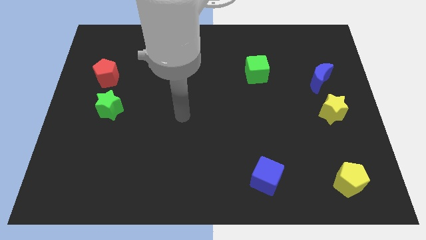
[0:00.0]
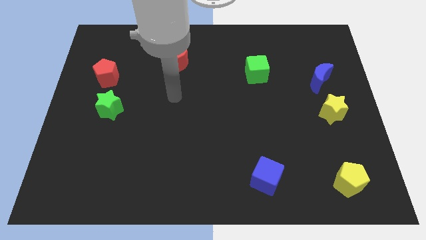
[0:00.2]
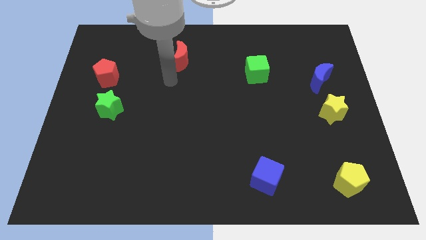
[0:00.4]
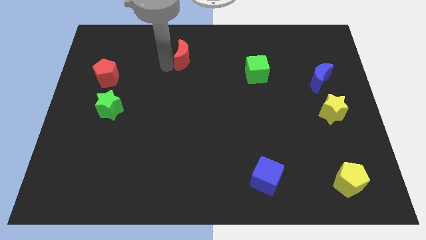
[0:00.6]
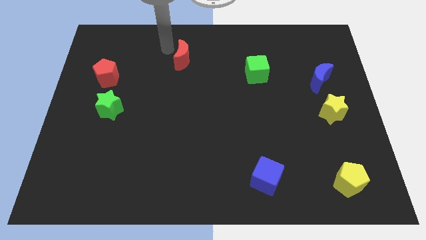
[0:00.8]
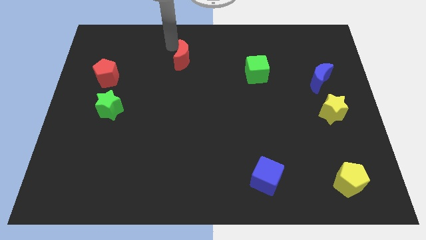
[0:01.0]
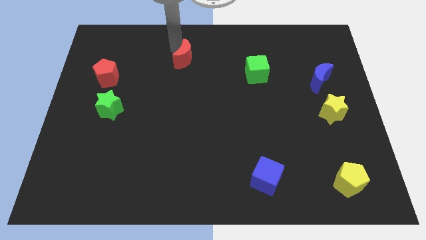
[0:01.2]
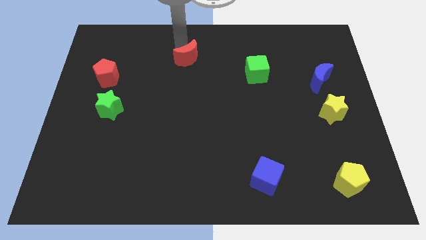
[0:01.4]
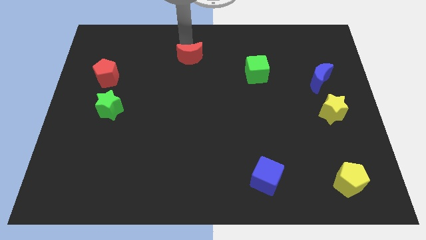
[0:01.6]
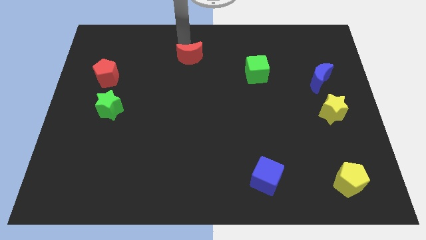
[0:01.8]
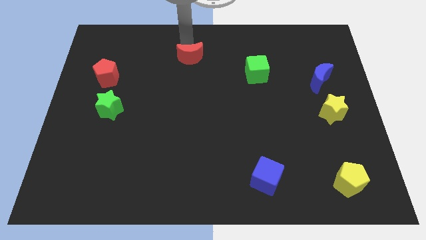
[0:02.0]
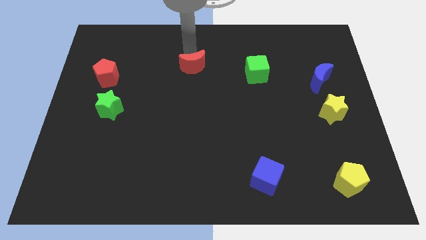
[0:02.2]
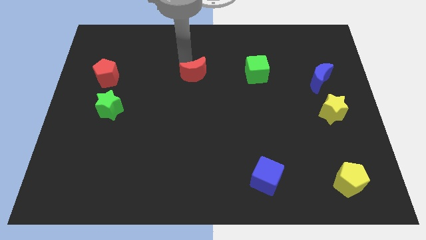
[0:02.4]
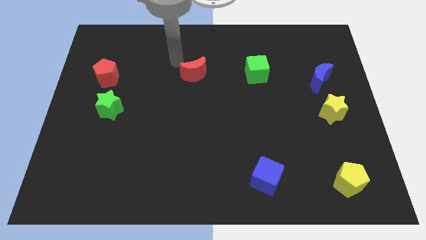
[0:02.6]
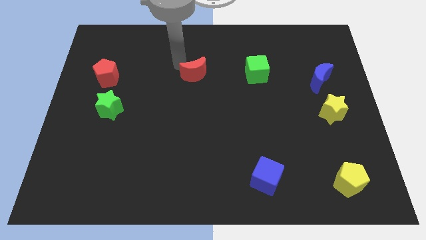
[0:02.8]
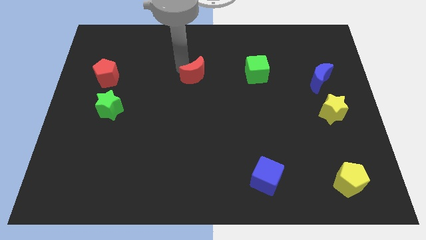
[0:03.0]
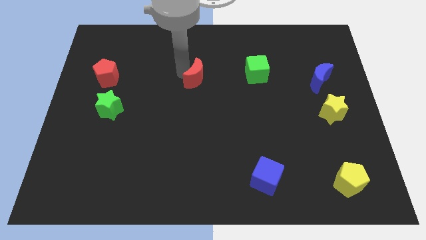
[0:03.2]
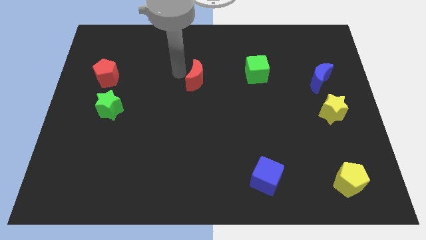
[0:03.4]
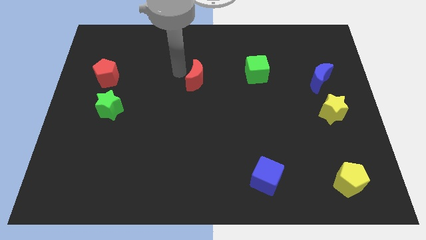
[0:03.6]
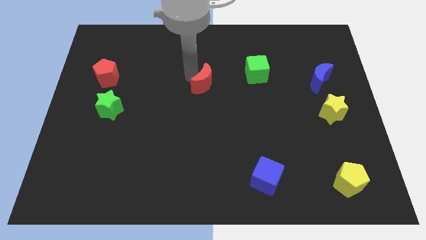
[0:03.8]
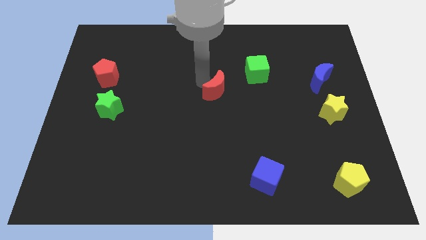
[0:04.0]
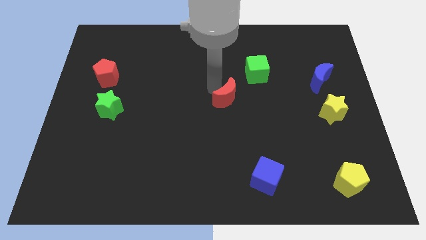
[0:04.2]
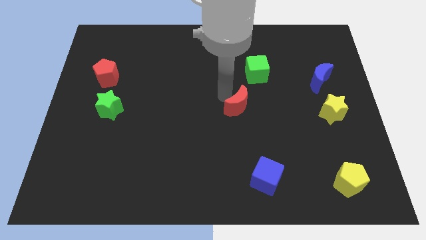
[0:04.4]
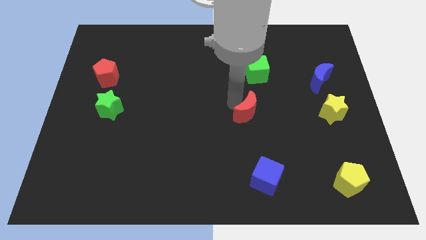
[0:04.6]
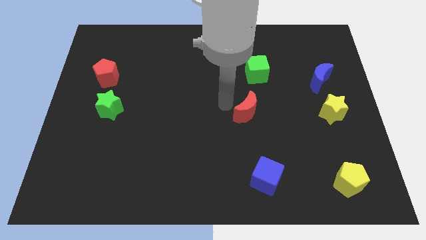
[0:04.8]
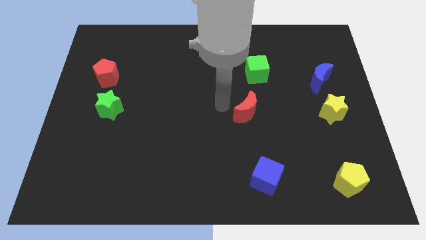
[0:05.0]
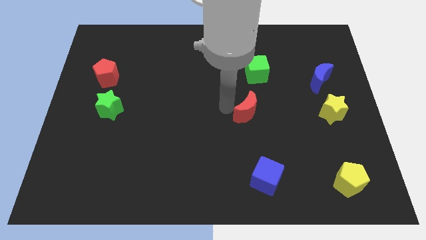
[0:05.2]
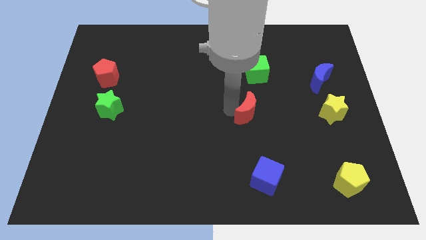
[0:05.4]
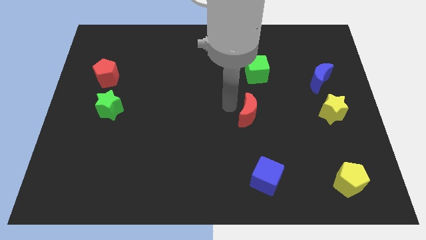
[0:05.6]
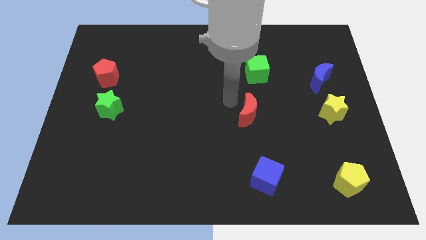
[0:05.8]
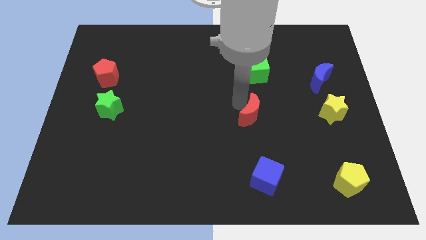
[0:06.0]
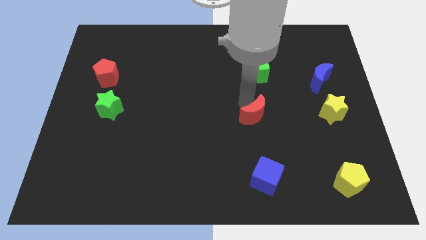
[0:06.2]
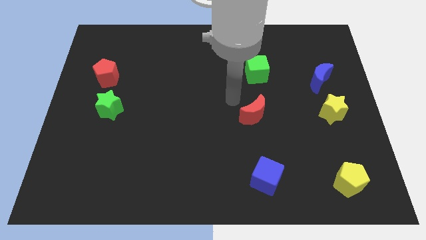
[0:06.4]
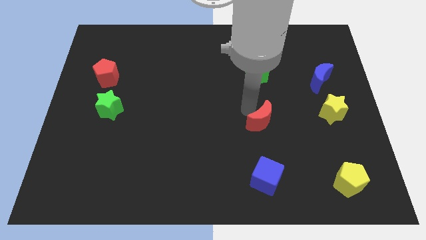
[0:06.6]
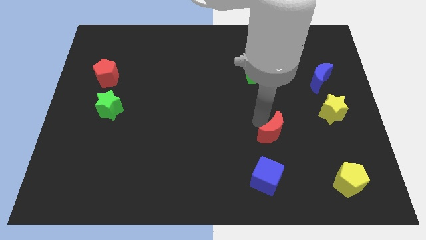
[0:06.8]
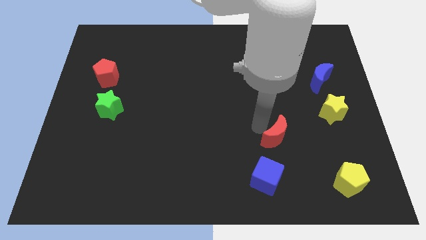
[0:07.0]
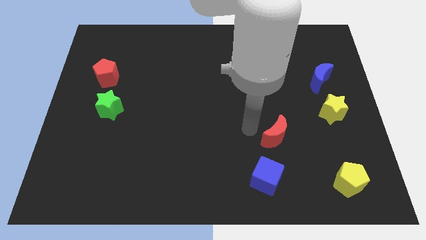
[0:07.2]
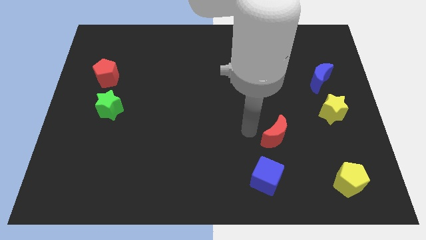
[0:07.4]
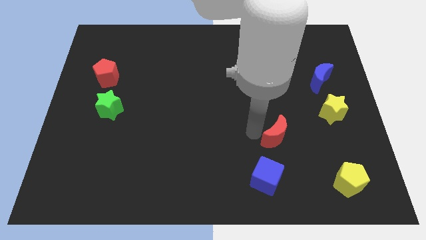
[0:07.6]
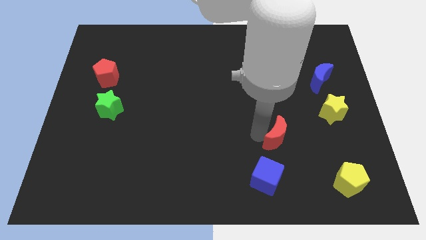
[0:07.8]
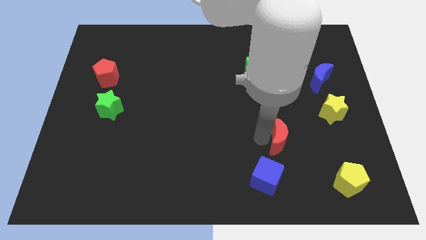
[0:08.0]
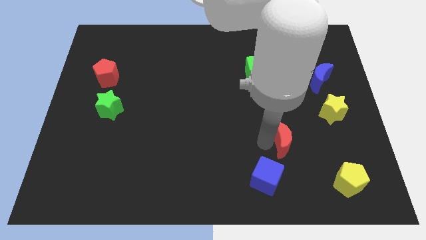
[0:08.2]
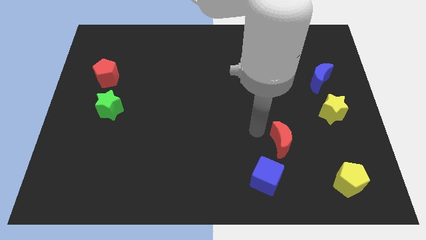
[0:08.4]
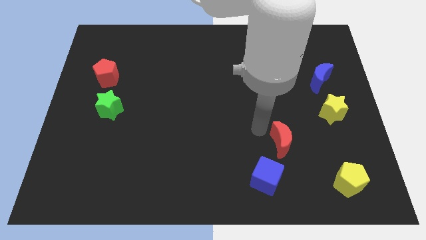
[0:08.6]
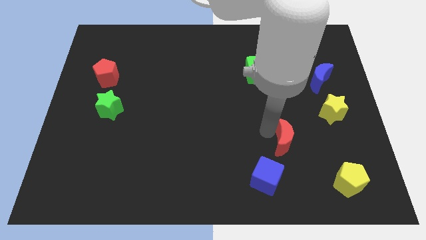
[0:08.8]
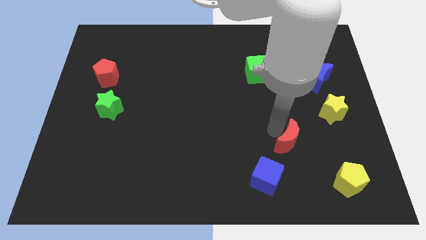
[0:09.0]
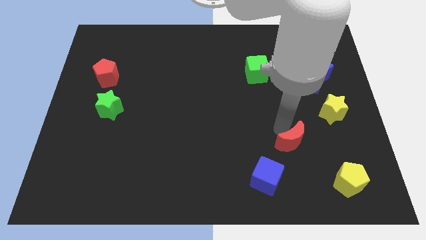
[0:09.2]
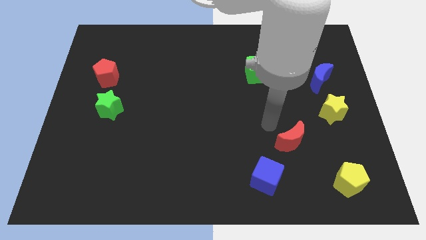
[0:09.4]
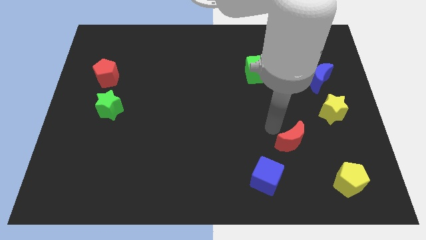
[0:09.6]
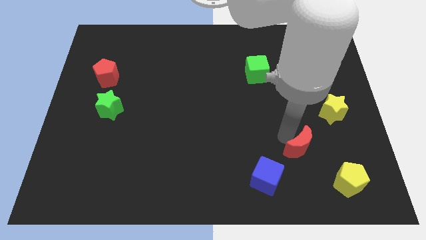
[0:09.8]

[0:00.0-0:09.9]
slide the red moon to the top left of the yellow pentagon

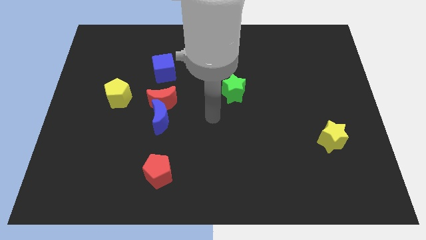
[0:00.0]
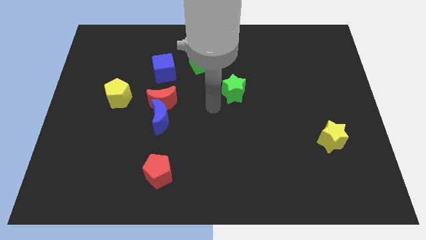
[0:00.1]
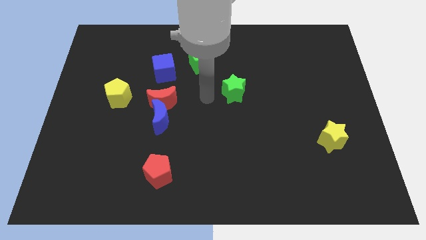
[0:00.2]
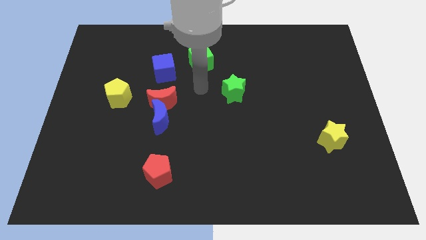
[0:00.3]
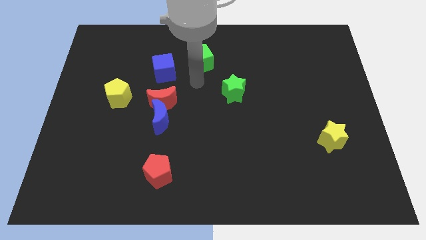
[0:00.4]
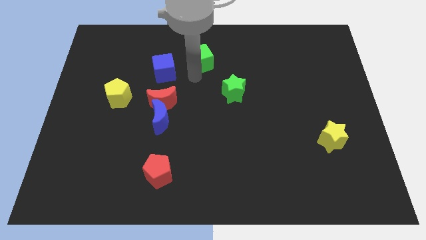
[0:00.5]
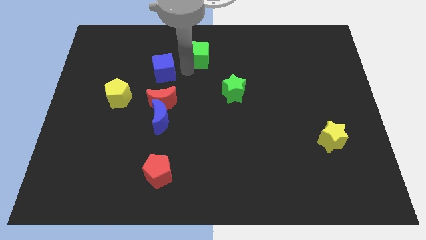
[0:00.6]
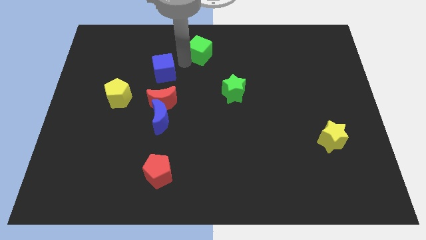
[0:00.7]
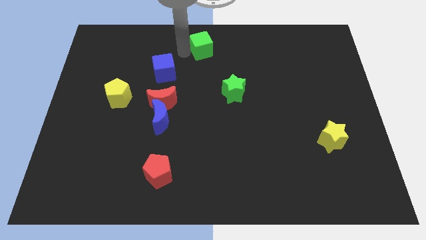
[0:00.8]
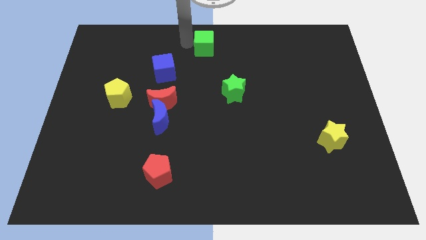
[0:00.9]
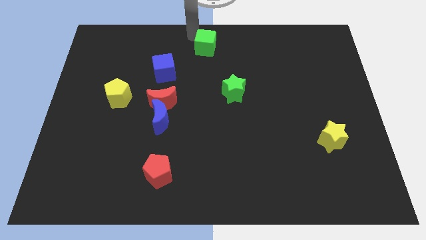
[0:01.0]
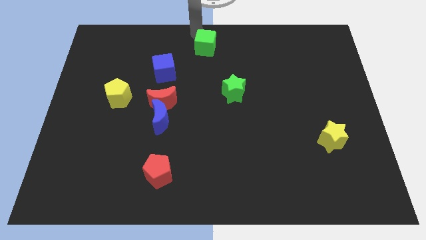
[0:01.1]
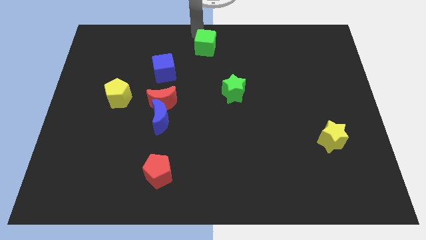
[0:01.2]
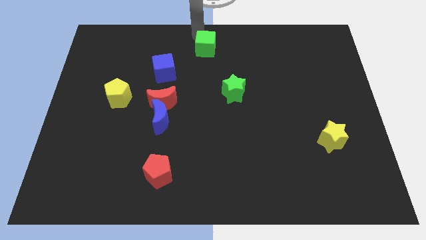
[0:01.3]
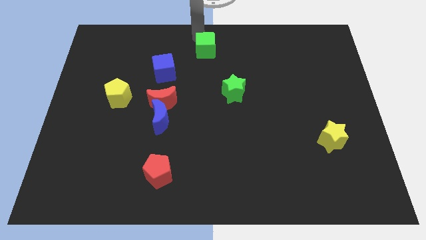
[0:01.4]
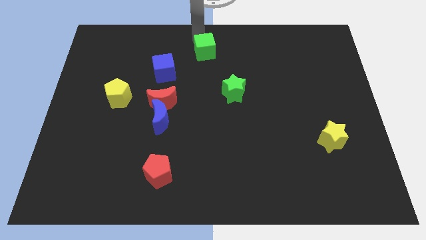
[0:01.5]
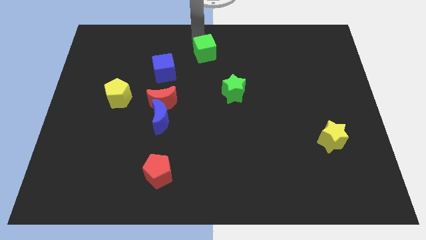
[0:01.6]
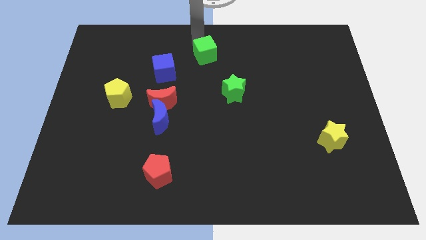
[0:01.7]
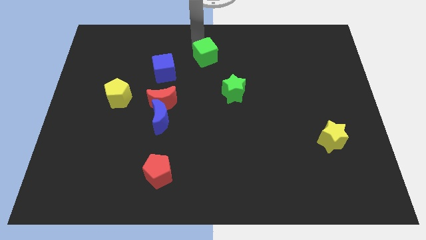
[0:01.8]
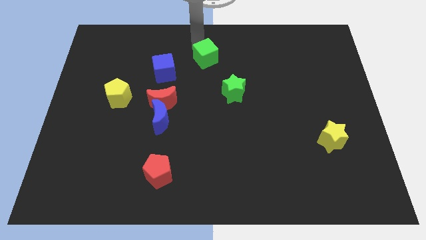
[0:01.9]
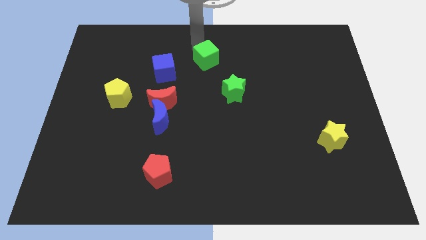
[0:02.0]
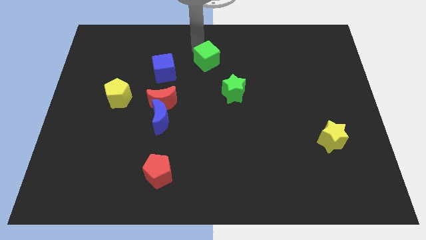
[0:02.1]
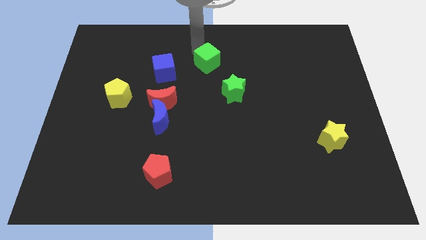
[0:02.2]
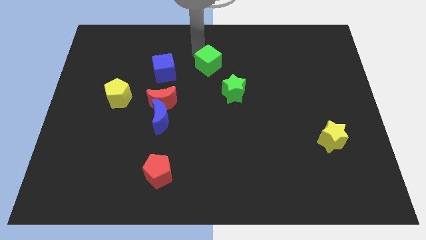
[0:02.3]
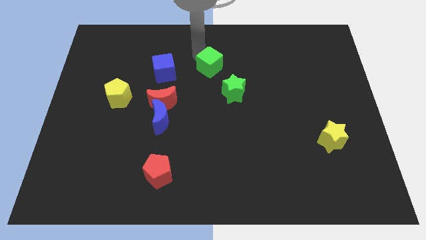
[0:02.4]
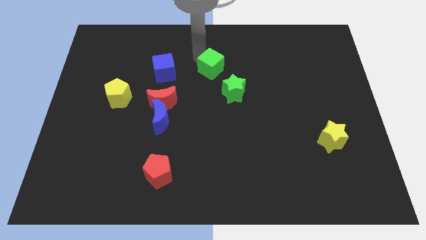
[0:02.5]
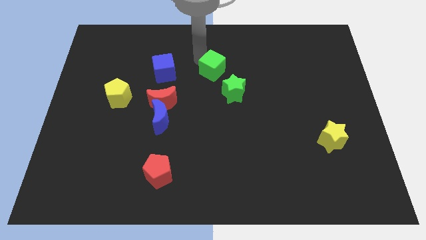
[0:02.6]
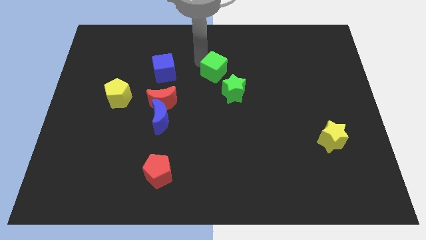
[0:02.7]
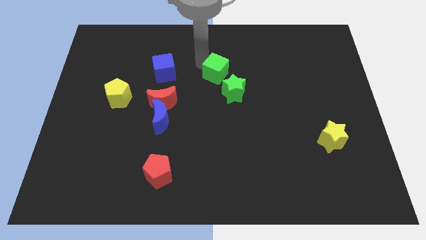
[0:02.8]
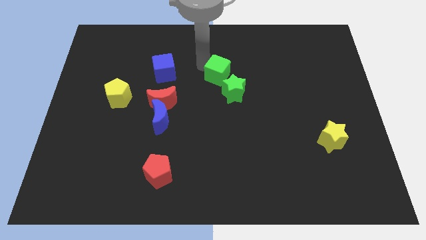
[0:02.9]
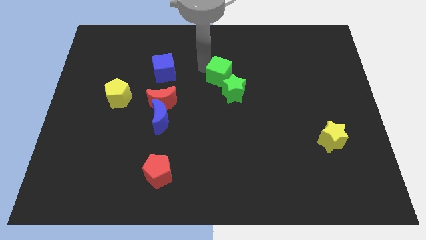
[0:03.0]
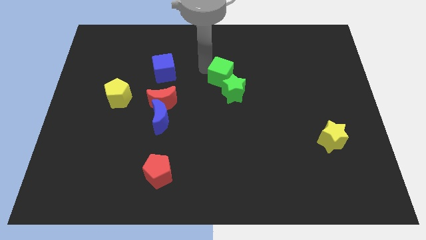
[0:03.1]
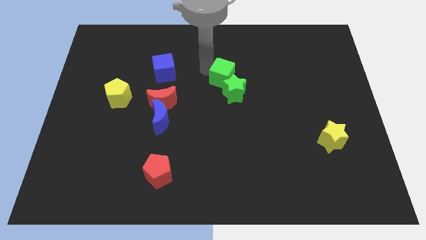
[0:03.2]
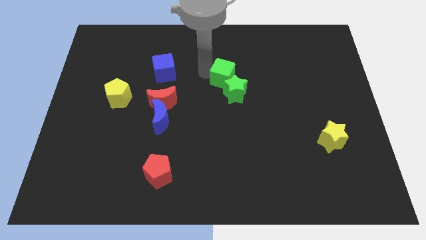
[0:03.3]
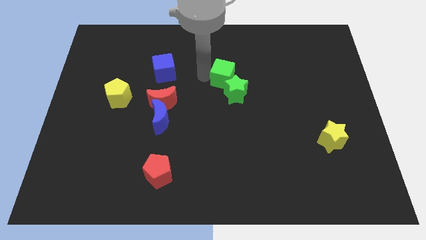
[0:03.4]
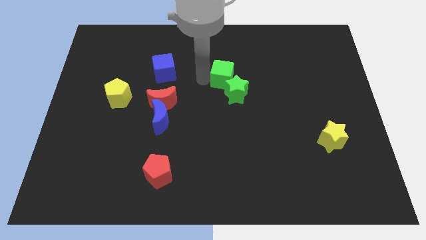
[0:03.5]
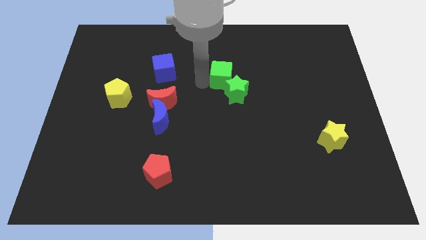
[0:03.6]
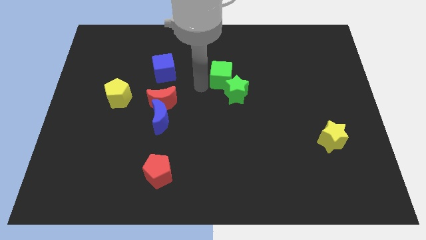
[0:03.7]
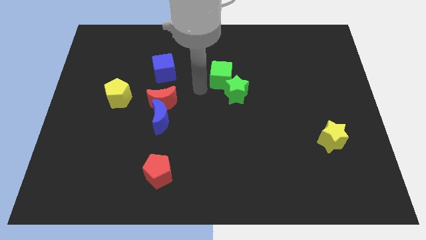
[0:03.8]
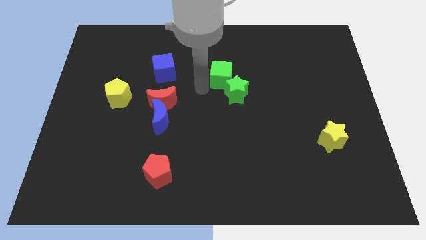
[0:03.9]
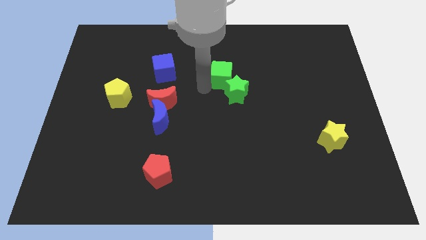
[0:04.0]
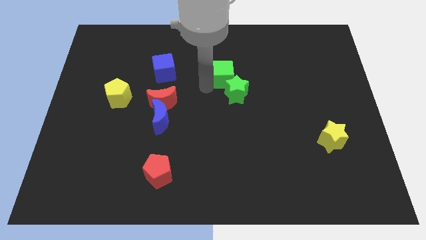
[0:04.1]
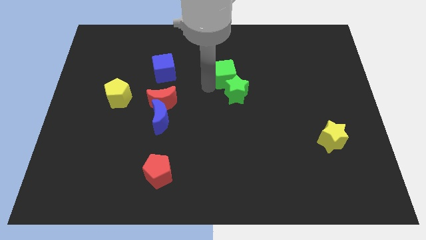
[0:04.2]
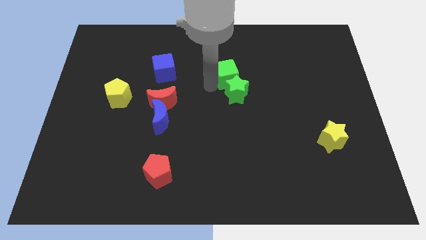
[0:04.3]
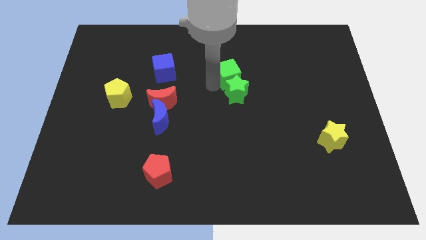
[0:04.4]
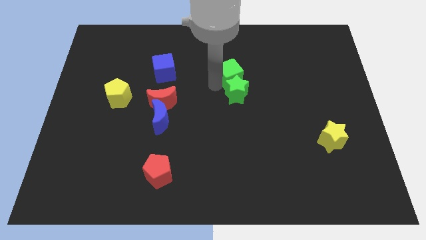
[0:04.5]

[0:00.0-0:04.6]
push the green cube to the top right side of the green star
